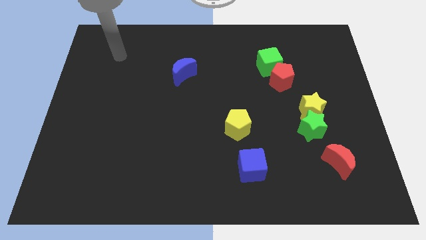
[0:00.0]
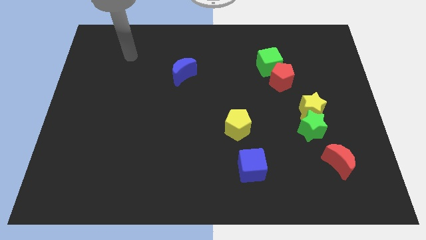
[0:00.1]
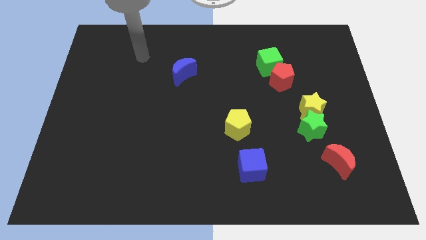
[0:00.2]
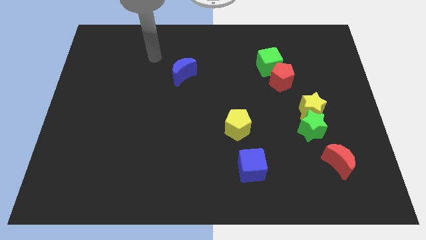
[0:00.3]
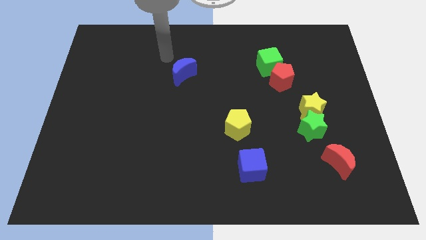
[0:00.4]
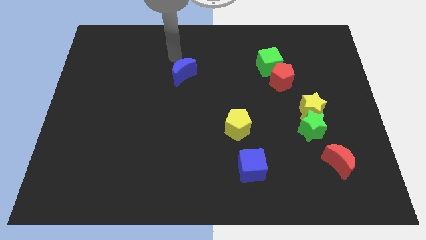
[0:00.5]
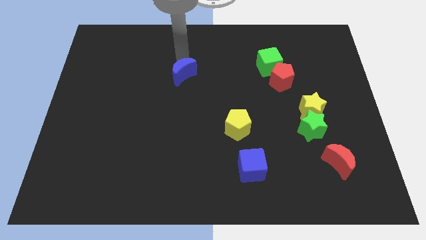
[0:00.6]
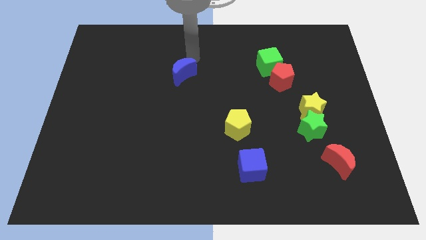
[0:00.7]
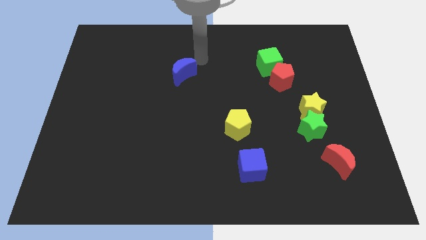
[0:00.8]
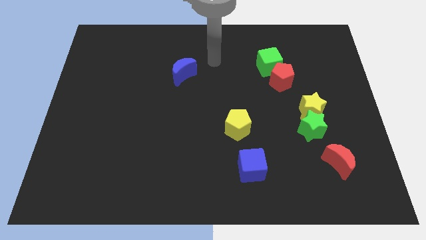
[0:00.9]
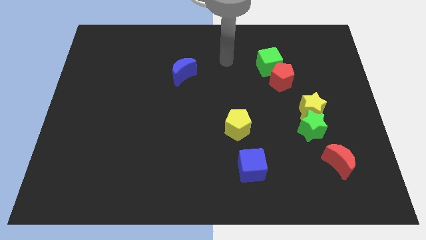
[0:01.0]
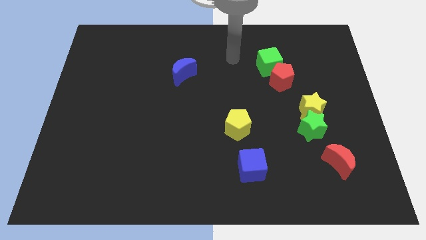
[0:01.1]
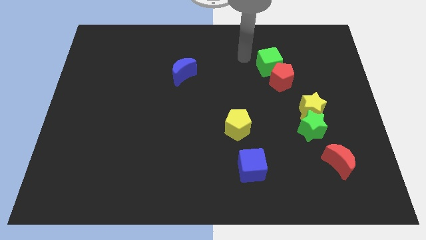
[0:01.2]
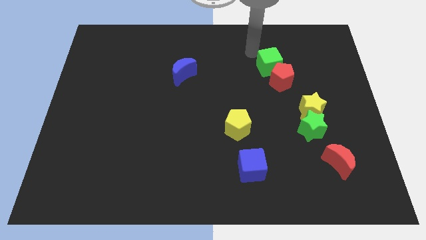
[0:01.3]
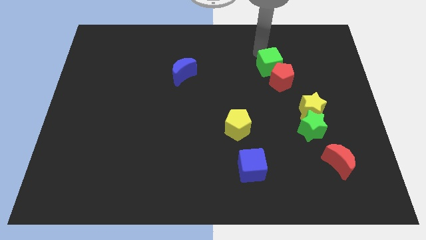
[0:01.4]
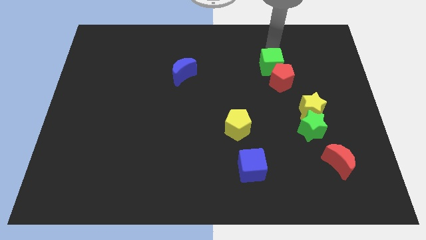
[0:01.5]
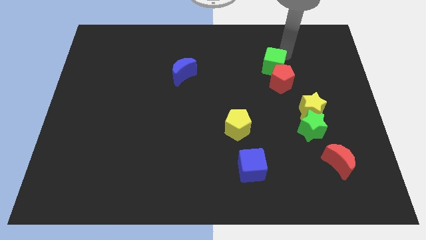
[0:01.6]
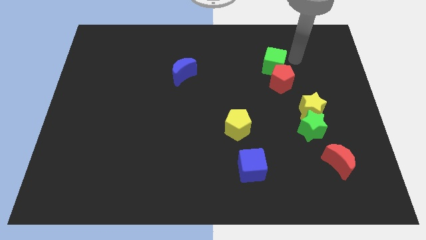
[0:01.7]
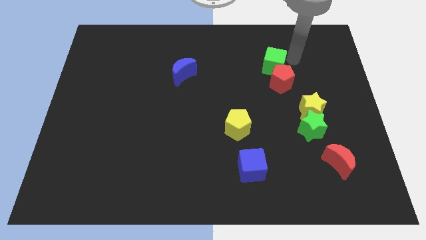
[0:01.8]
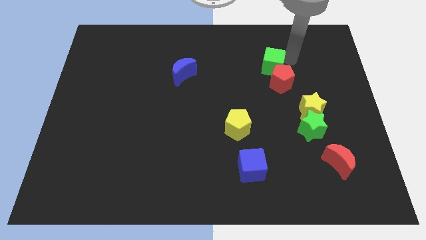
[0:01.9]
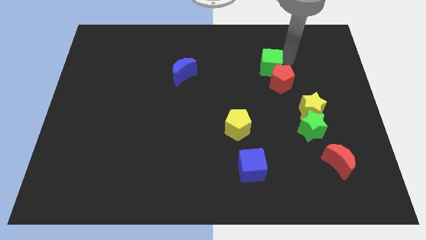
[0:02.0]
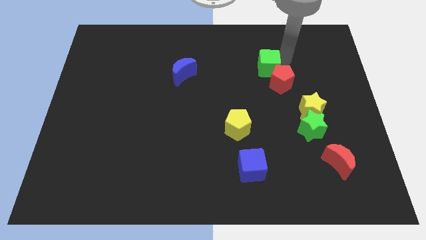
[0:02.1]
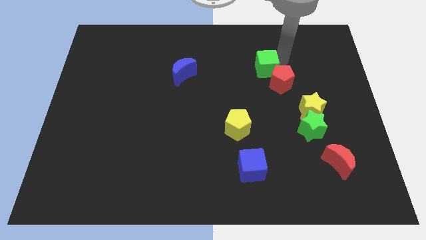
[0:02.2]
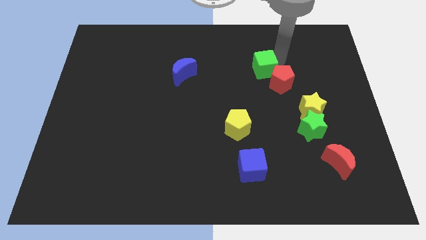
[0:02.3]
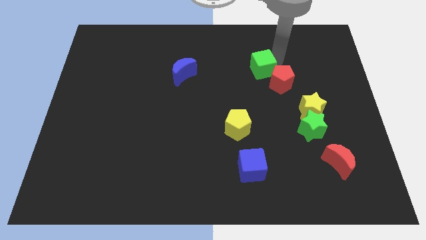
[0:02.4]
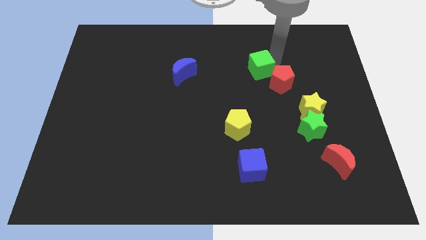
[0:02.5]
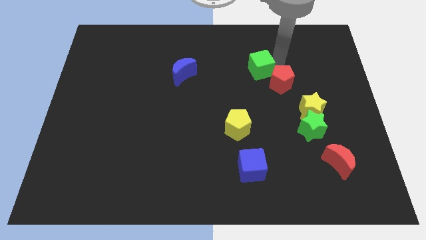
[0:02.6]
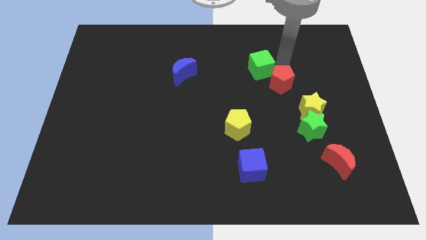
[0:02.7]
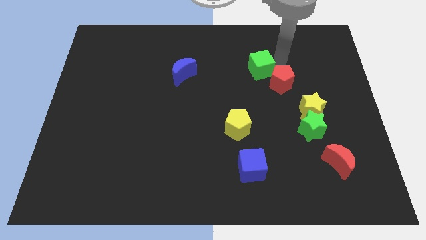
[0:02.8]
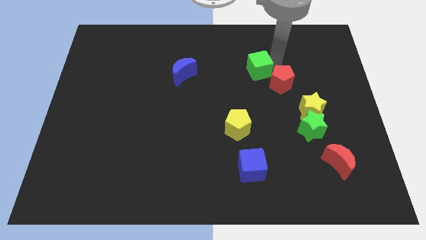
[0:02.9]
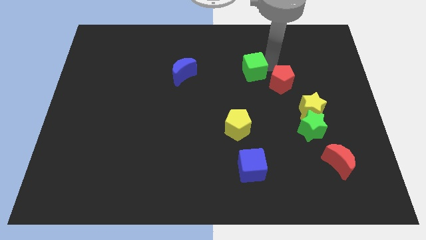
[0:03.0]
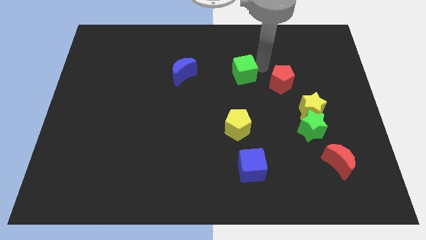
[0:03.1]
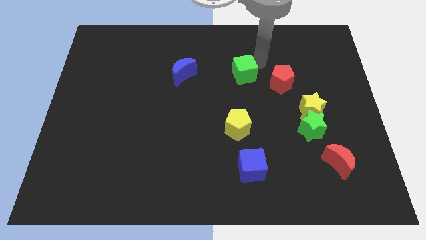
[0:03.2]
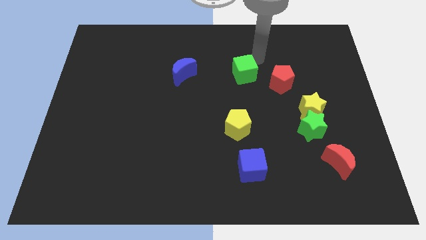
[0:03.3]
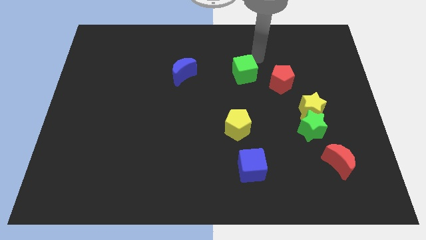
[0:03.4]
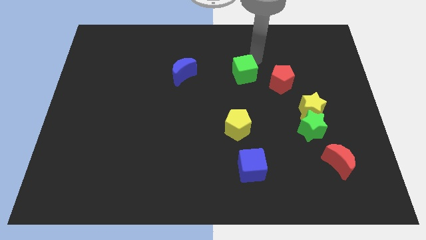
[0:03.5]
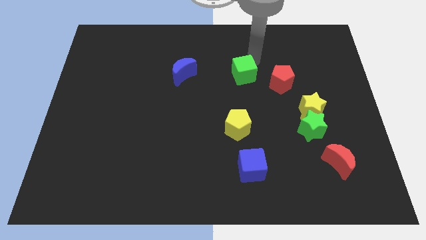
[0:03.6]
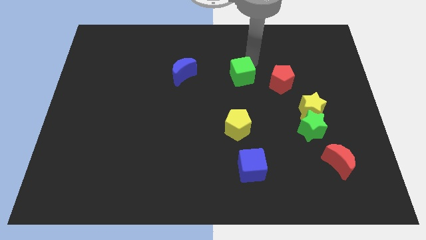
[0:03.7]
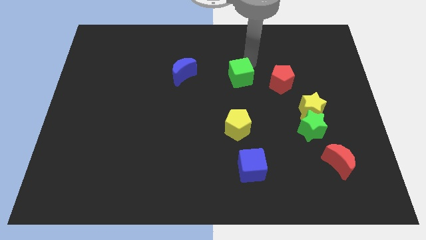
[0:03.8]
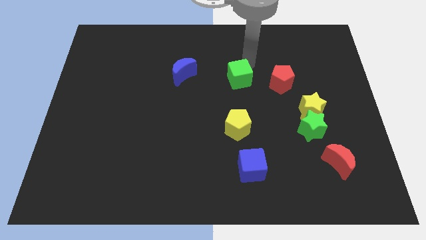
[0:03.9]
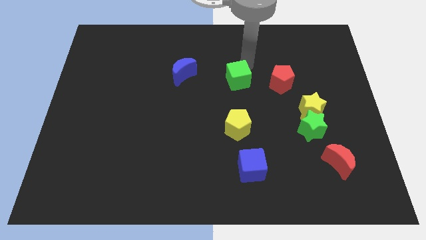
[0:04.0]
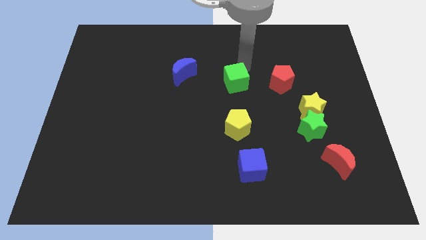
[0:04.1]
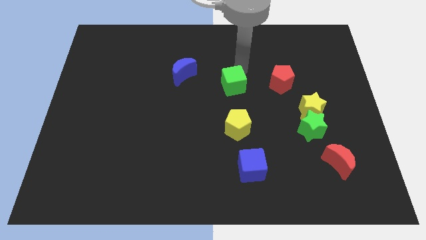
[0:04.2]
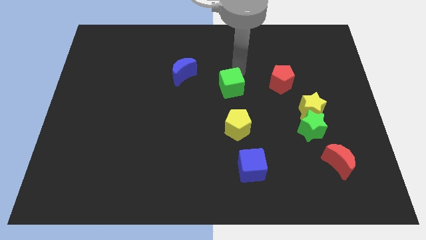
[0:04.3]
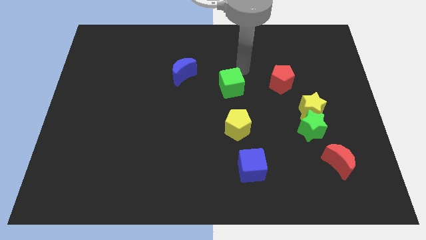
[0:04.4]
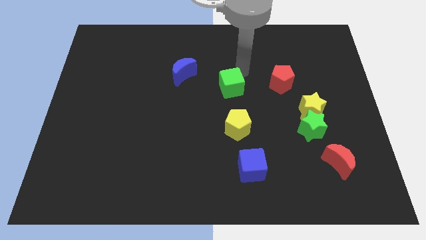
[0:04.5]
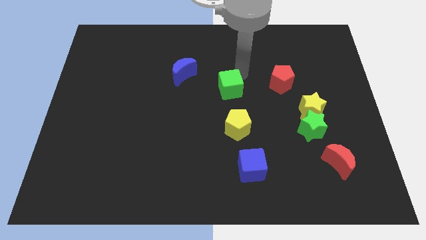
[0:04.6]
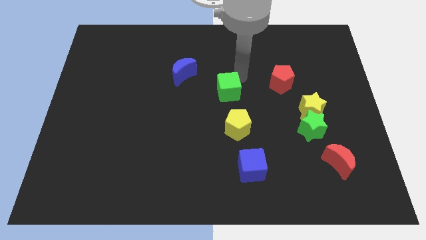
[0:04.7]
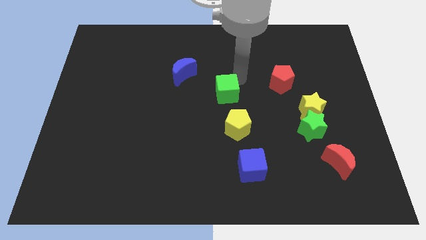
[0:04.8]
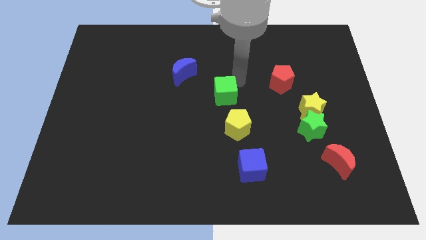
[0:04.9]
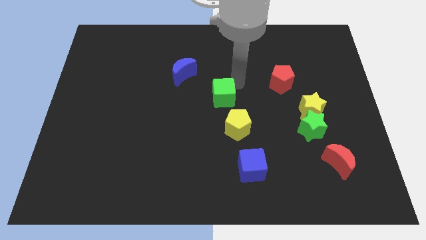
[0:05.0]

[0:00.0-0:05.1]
push the green cube to the top left side of the yellow pentagon

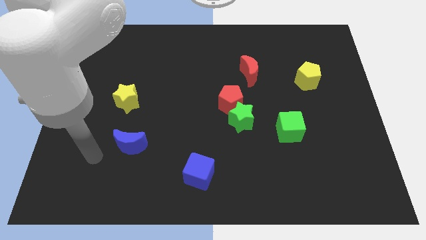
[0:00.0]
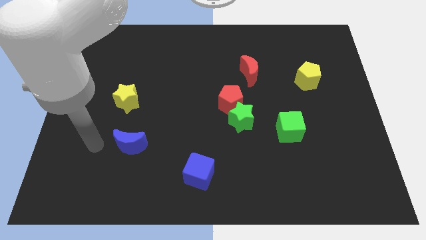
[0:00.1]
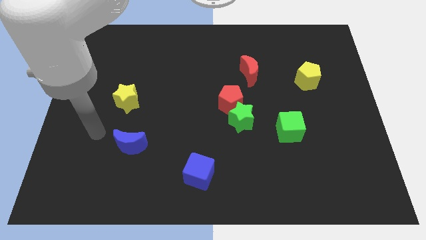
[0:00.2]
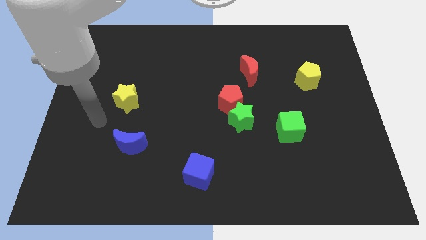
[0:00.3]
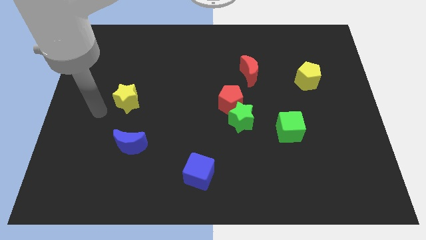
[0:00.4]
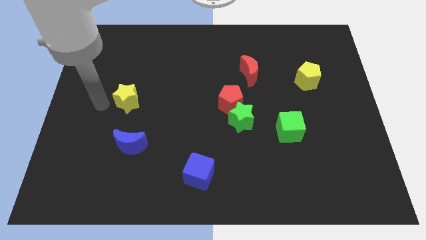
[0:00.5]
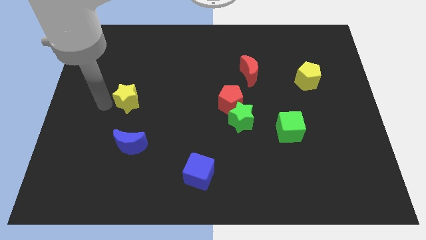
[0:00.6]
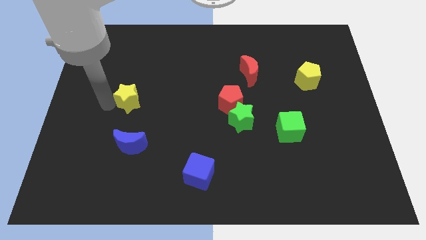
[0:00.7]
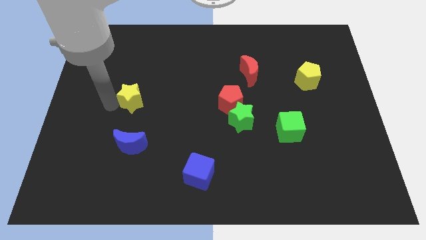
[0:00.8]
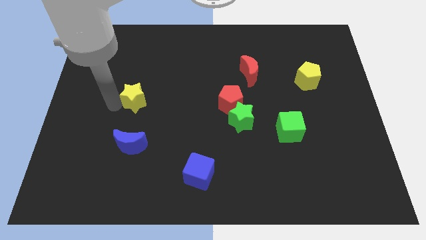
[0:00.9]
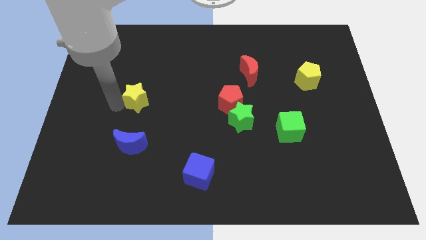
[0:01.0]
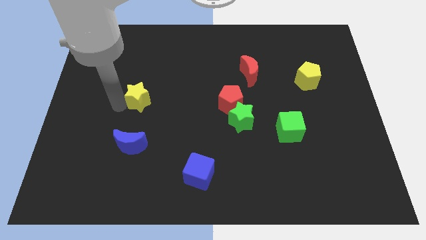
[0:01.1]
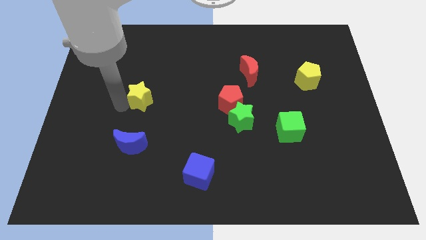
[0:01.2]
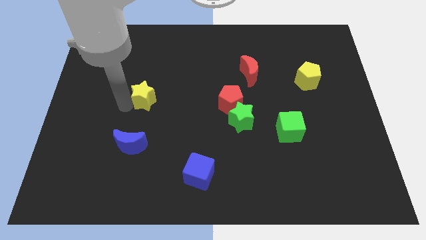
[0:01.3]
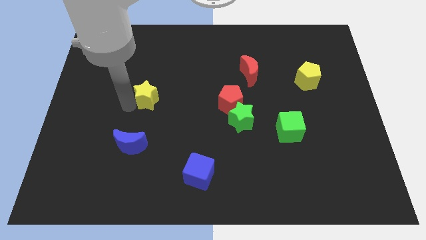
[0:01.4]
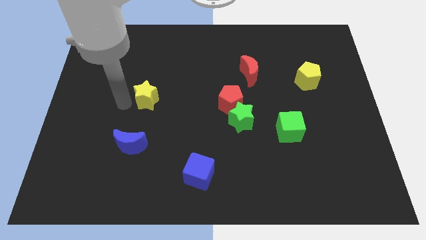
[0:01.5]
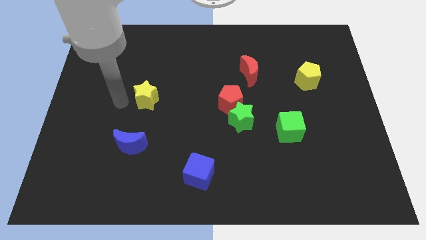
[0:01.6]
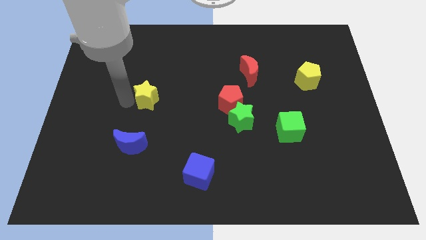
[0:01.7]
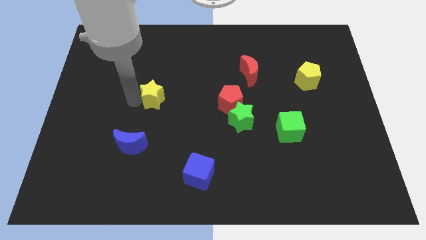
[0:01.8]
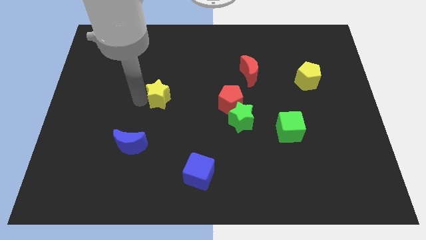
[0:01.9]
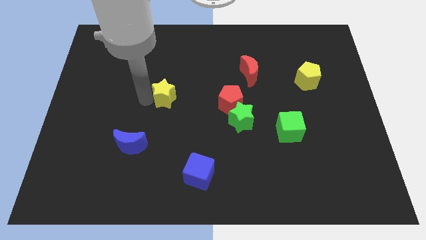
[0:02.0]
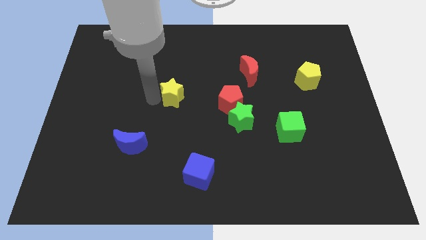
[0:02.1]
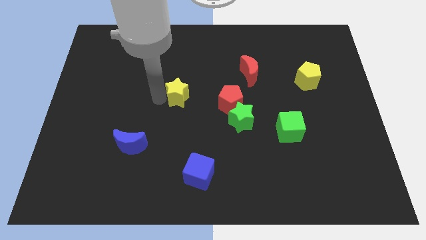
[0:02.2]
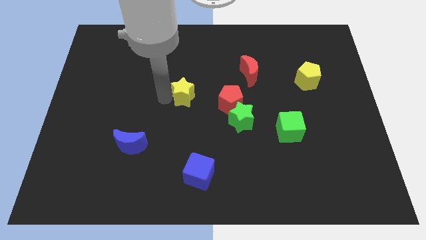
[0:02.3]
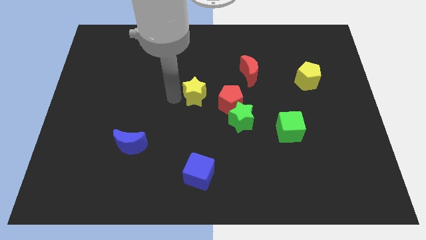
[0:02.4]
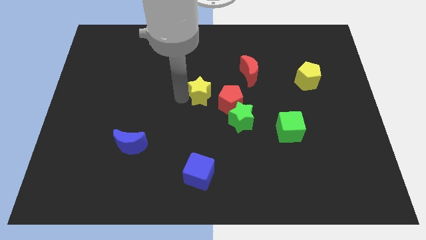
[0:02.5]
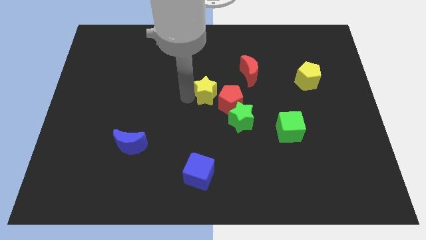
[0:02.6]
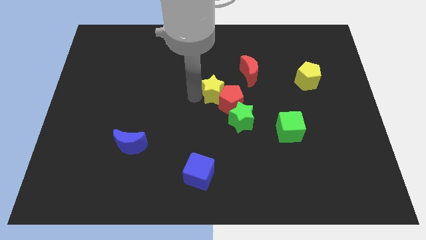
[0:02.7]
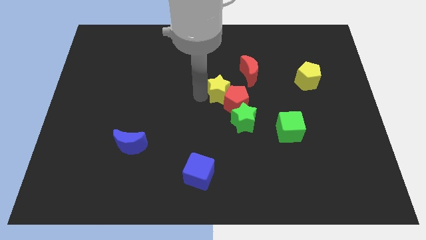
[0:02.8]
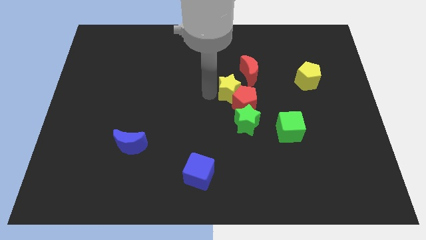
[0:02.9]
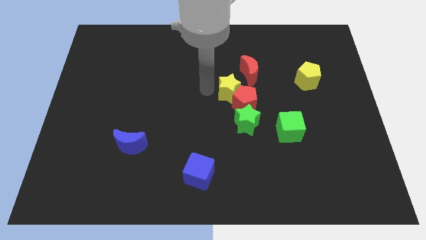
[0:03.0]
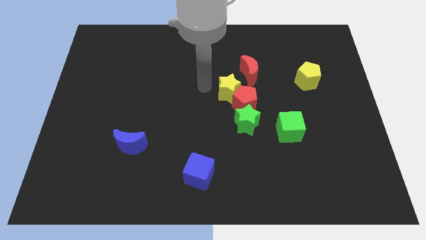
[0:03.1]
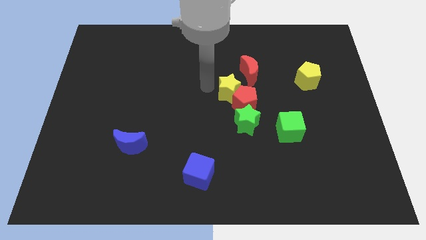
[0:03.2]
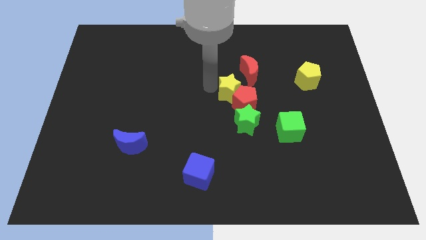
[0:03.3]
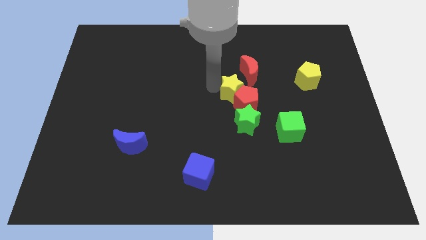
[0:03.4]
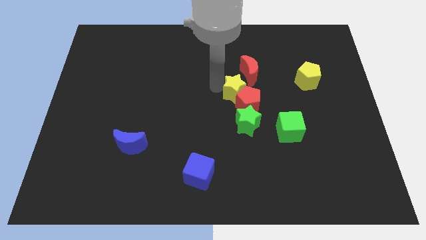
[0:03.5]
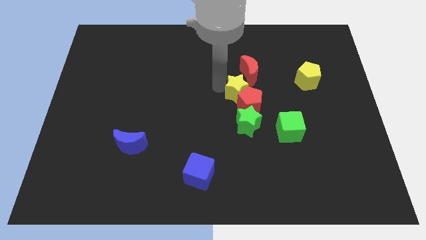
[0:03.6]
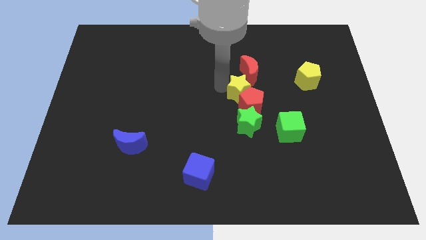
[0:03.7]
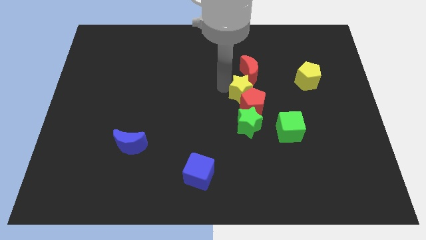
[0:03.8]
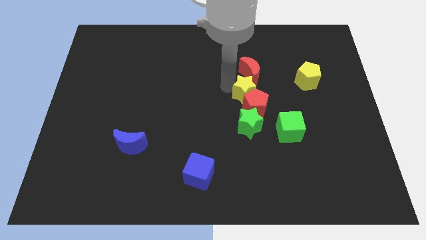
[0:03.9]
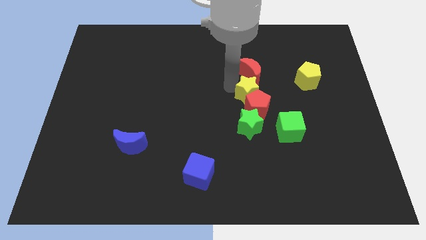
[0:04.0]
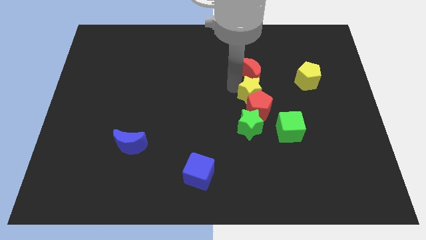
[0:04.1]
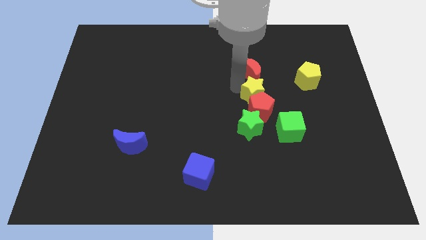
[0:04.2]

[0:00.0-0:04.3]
move the yellow star diagonally up and to the left of the green cube
